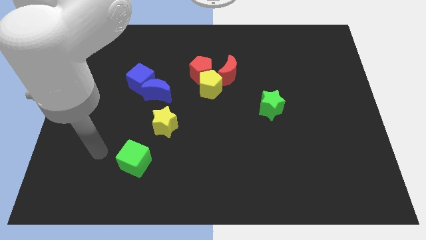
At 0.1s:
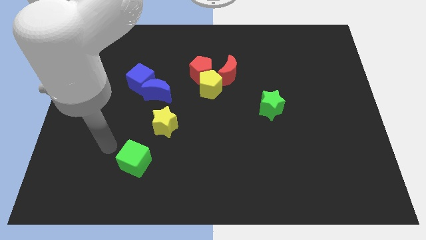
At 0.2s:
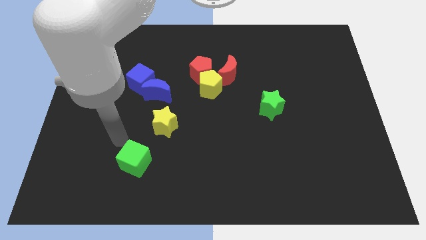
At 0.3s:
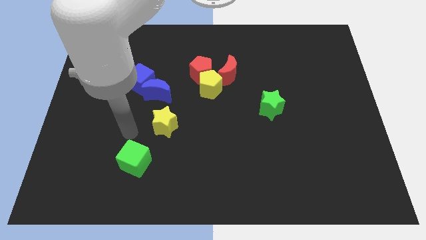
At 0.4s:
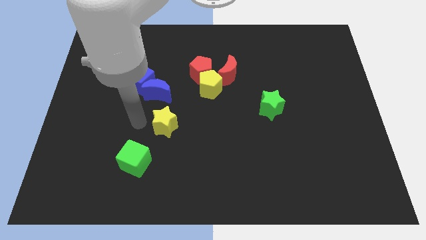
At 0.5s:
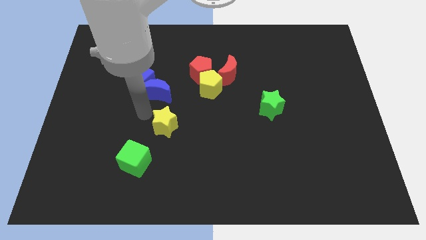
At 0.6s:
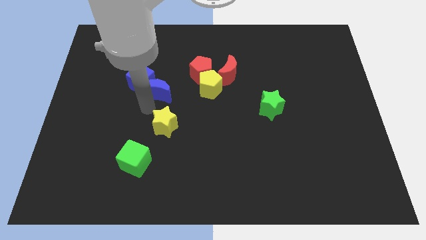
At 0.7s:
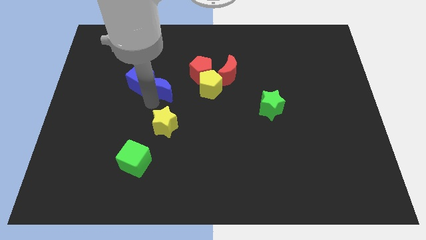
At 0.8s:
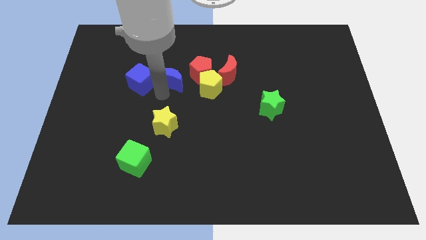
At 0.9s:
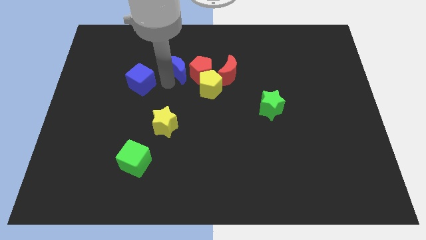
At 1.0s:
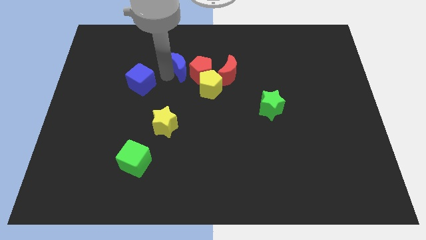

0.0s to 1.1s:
separate the blue cube from the blue moon

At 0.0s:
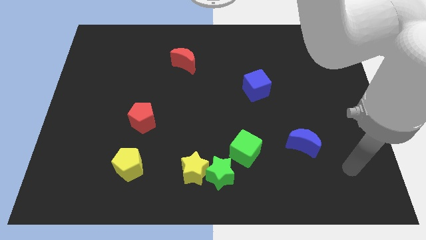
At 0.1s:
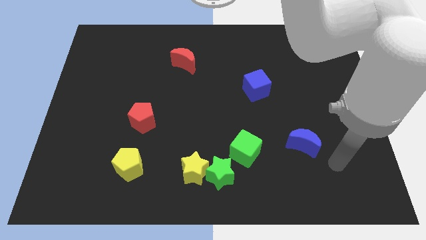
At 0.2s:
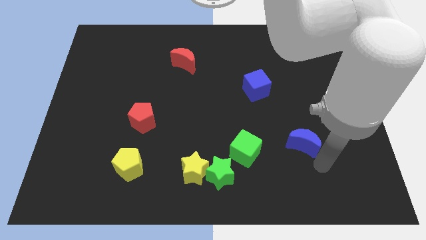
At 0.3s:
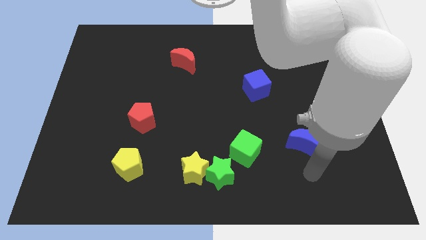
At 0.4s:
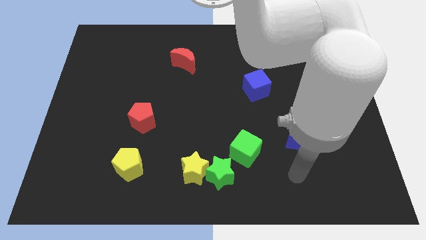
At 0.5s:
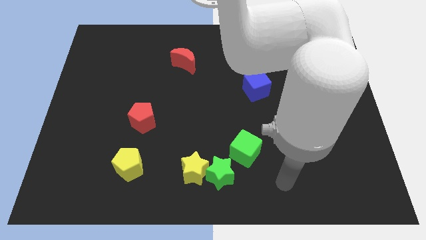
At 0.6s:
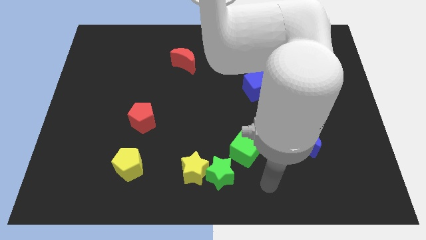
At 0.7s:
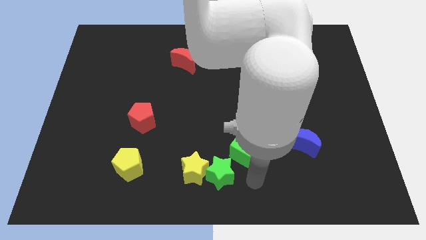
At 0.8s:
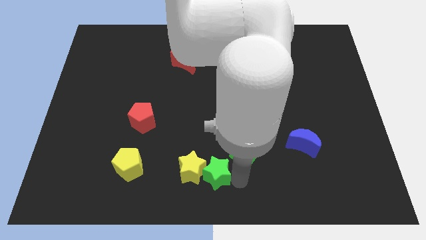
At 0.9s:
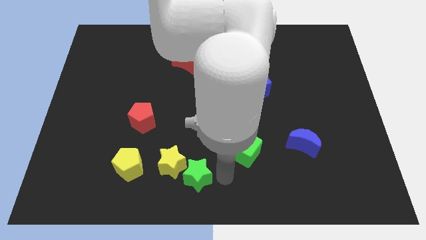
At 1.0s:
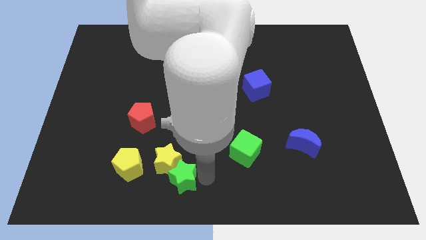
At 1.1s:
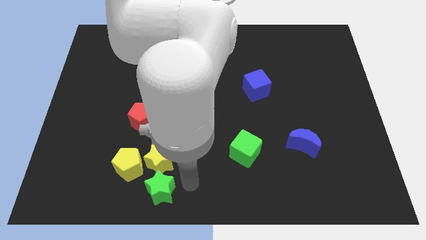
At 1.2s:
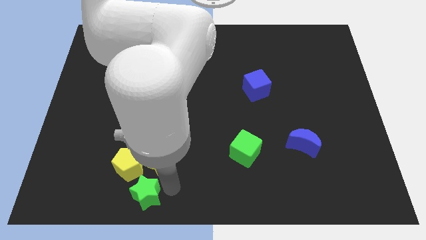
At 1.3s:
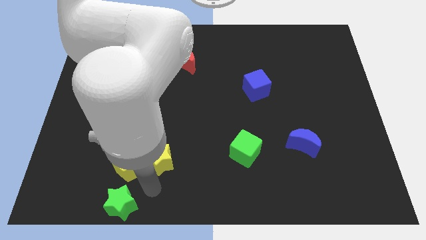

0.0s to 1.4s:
separate the yellow star from the green star

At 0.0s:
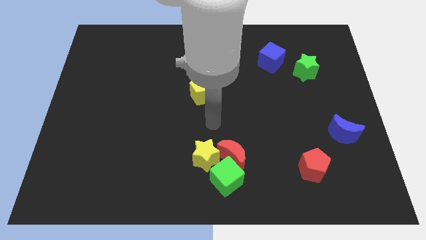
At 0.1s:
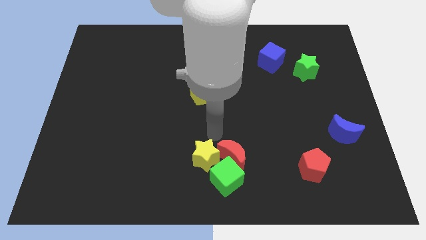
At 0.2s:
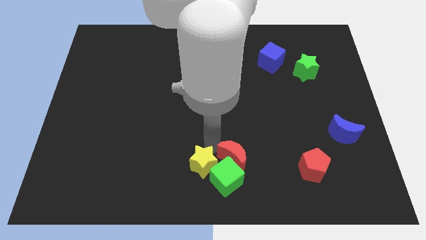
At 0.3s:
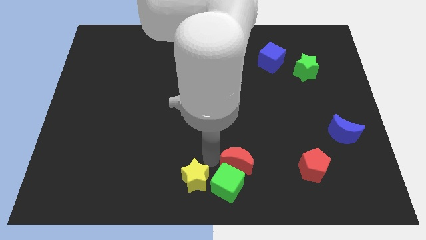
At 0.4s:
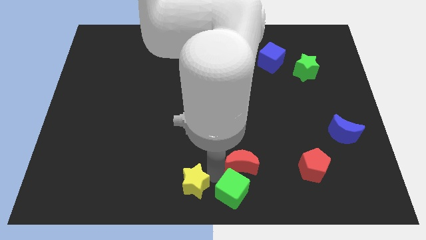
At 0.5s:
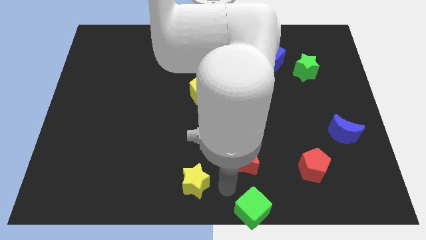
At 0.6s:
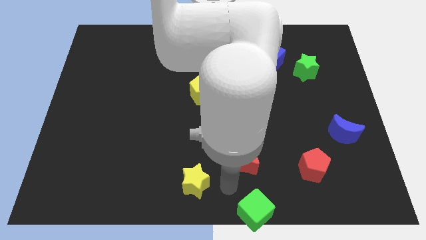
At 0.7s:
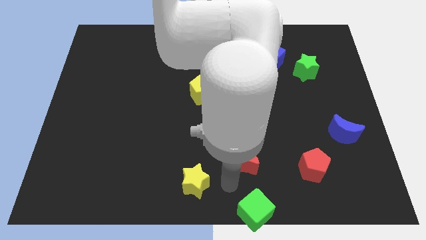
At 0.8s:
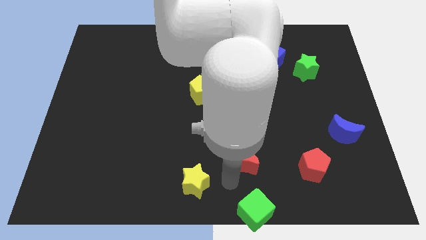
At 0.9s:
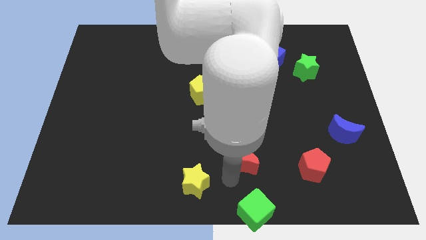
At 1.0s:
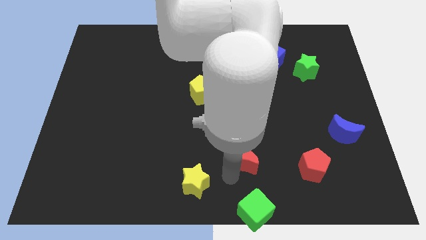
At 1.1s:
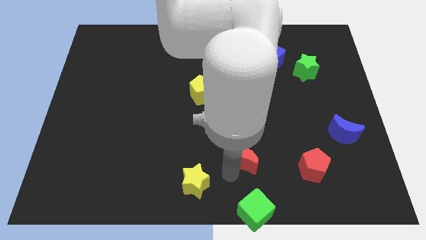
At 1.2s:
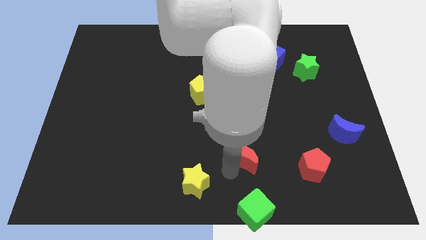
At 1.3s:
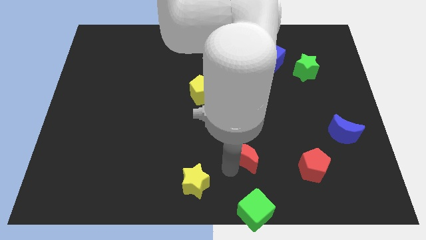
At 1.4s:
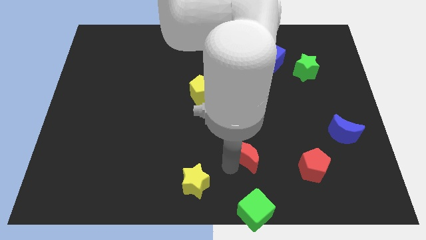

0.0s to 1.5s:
pull the red moon apart from the green cube and yellow star

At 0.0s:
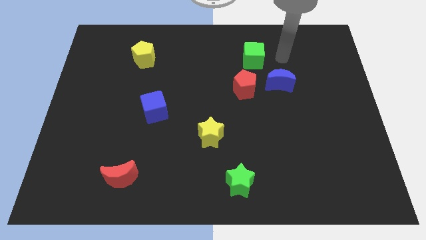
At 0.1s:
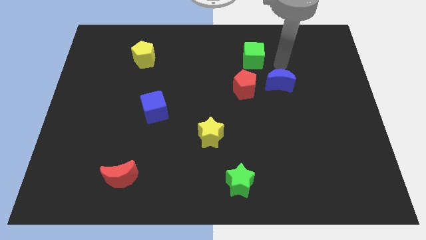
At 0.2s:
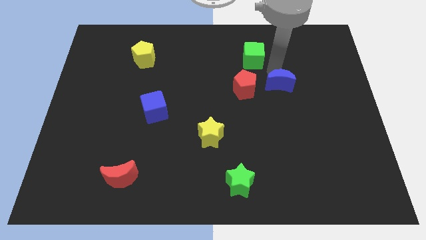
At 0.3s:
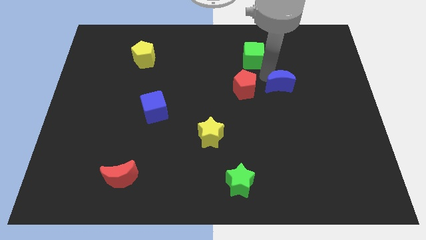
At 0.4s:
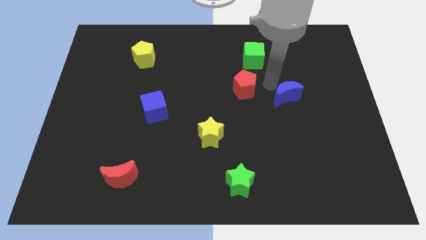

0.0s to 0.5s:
pull the red pentagon apart from the blue moon

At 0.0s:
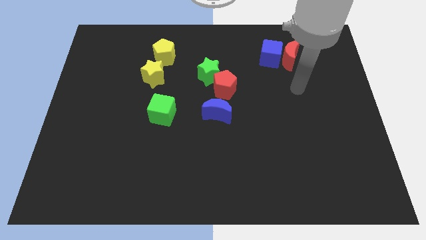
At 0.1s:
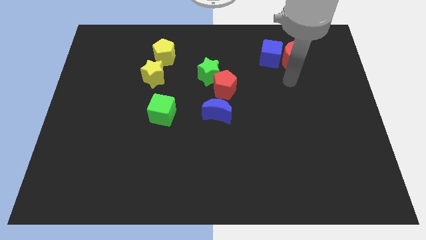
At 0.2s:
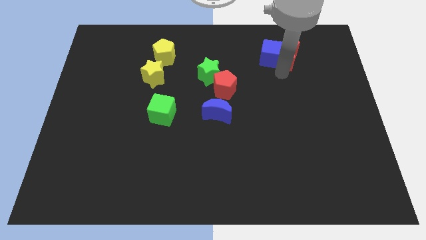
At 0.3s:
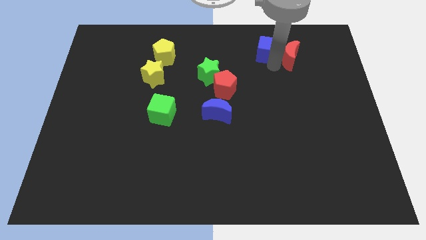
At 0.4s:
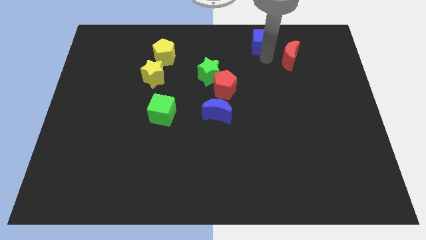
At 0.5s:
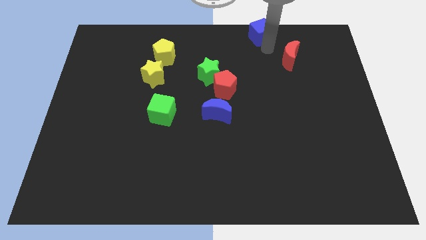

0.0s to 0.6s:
separate the red moon from the blue cube

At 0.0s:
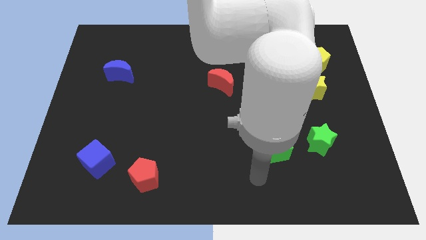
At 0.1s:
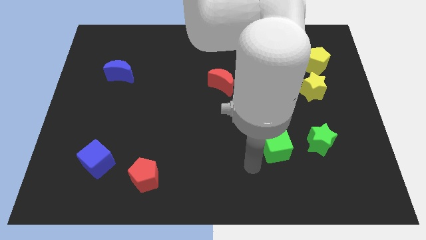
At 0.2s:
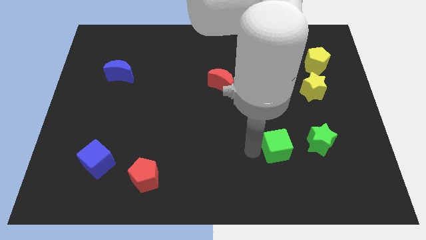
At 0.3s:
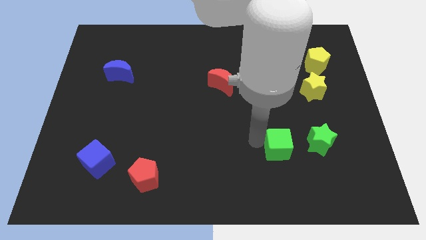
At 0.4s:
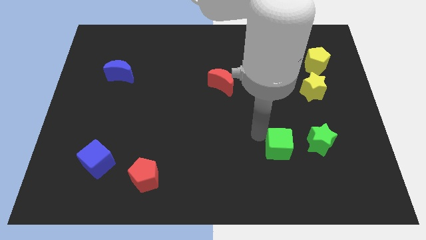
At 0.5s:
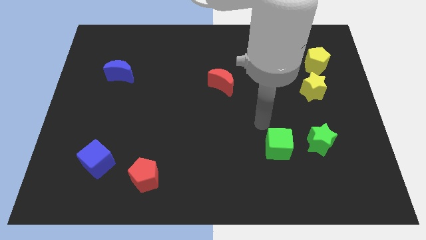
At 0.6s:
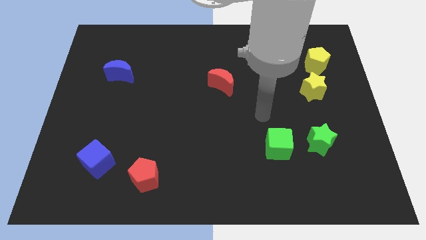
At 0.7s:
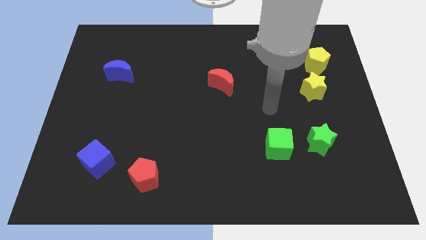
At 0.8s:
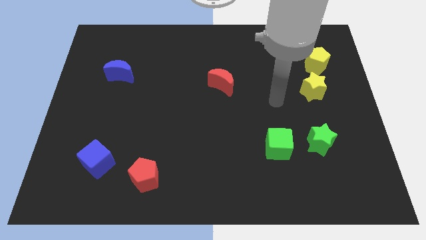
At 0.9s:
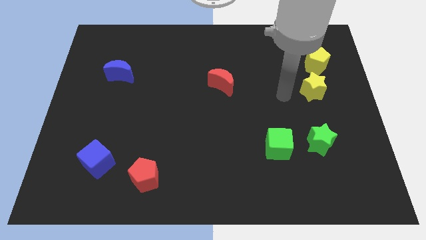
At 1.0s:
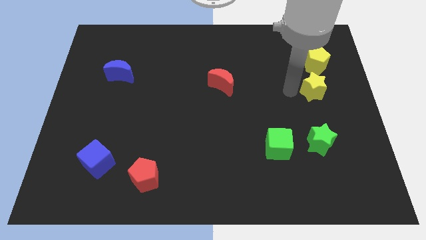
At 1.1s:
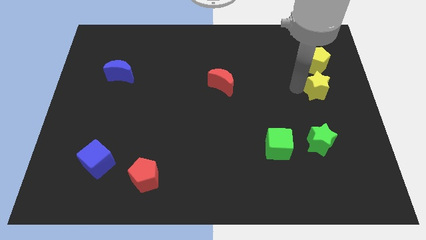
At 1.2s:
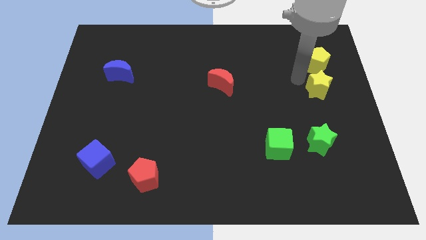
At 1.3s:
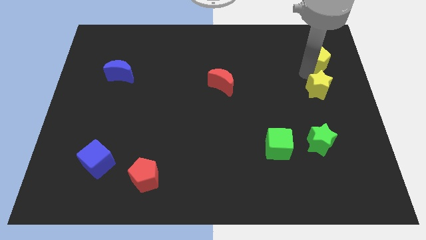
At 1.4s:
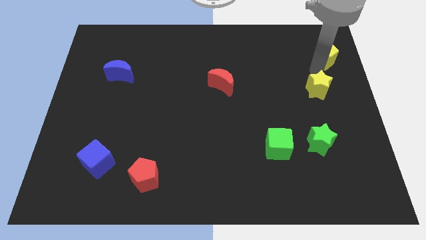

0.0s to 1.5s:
pull the yellow star apart from the yellow pentagon

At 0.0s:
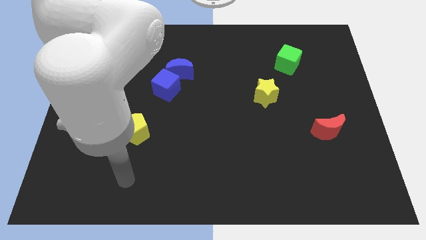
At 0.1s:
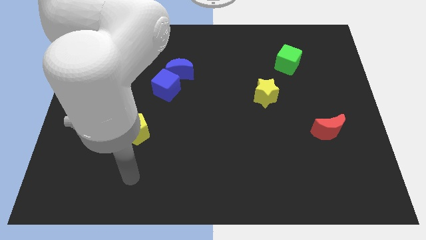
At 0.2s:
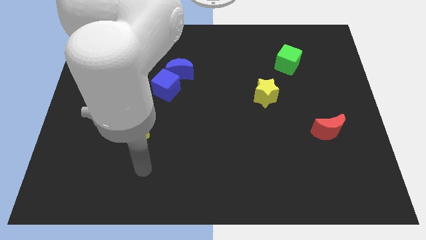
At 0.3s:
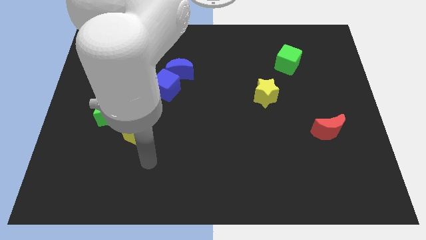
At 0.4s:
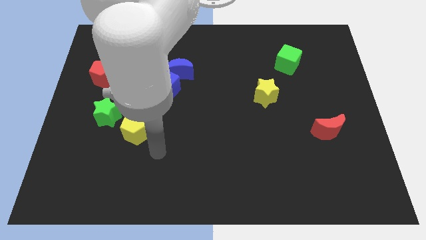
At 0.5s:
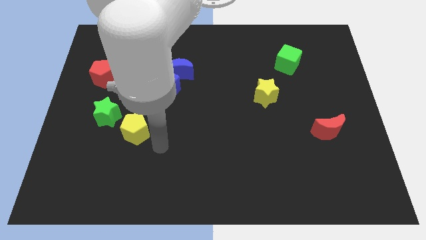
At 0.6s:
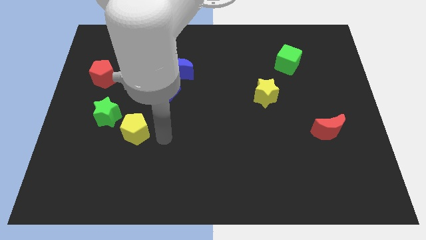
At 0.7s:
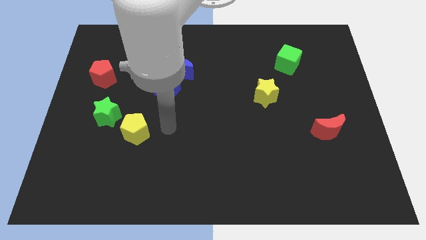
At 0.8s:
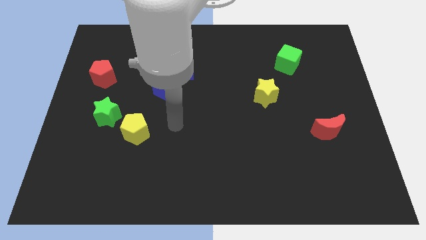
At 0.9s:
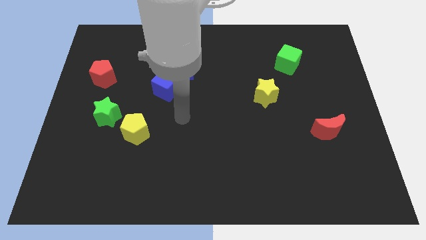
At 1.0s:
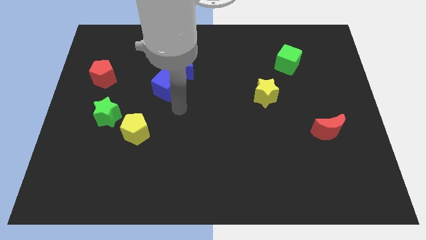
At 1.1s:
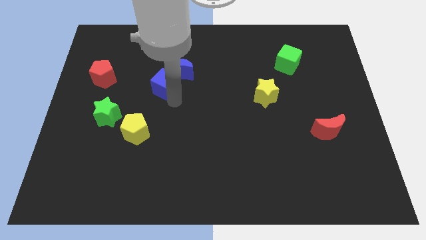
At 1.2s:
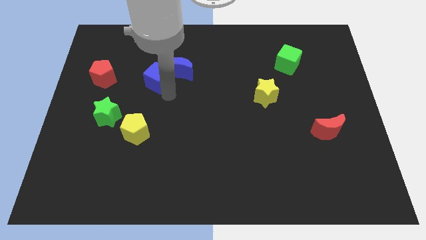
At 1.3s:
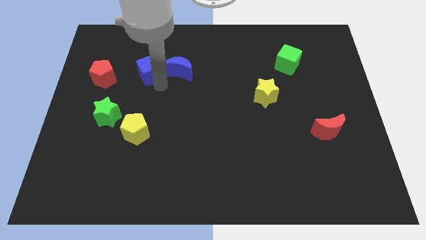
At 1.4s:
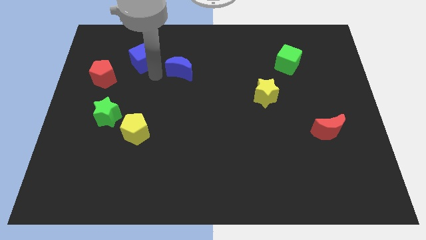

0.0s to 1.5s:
separate the blue moon from the blue cube

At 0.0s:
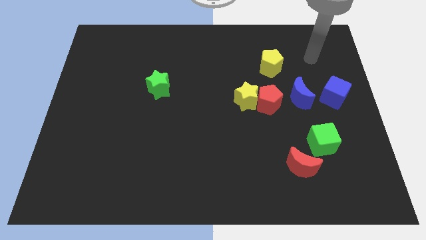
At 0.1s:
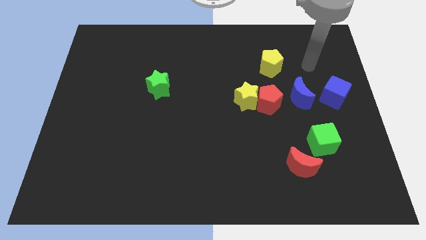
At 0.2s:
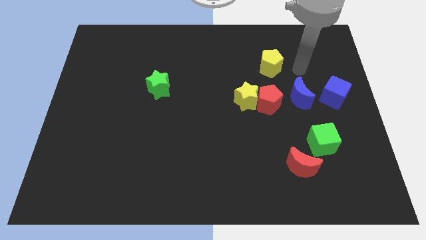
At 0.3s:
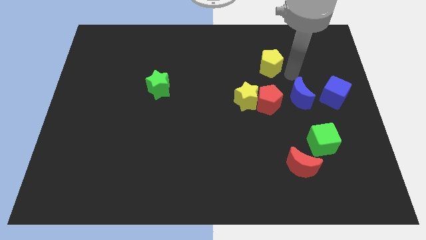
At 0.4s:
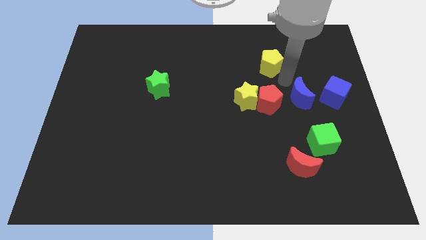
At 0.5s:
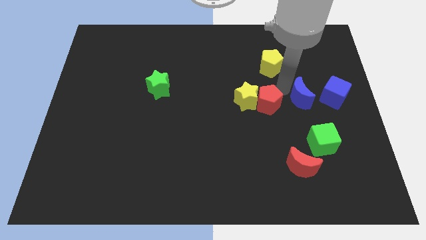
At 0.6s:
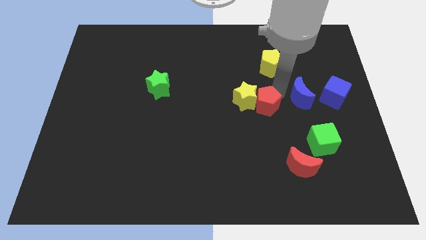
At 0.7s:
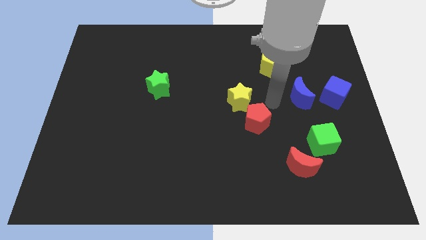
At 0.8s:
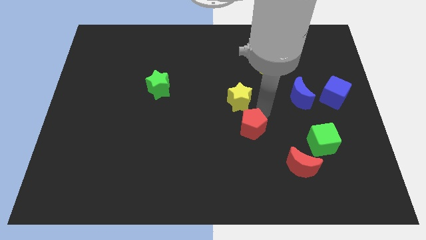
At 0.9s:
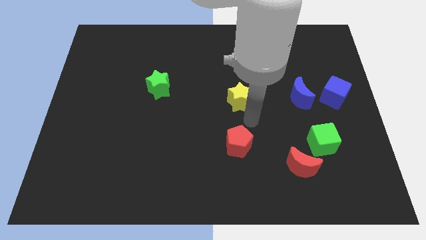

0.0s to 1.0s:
separate the yellow star from the red pentagon

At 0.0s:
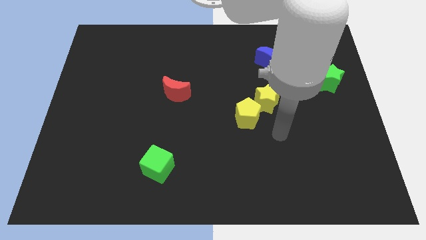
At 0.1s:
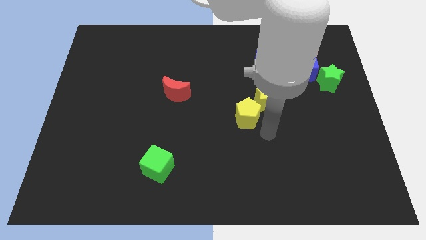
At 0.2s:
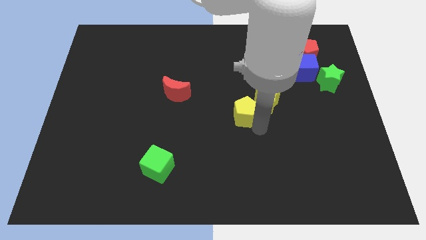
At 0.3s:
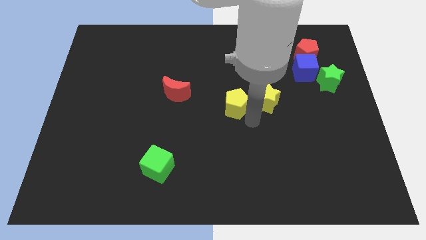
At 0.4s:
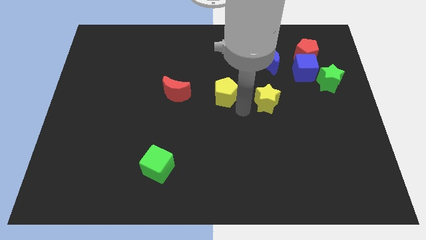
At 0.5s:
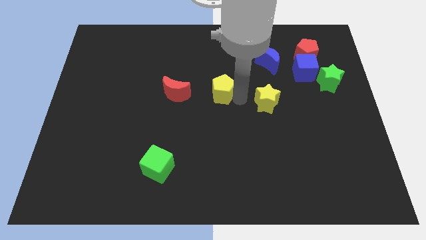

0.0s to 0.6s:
move the yellow star away from the yellow pentagon
